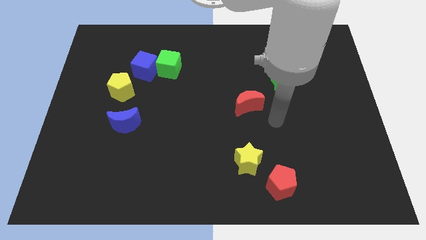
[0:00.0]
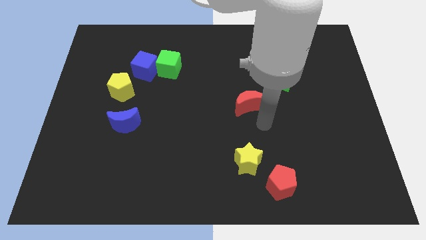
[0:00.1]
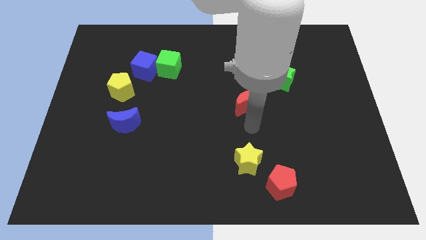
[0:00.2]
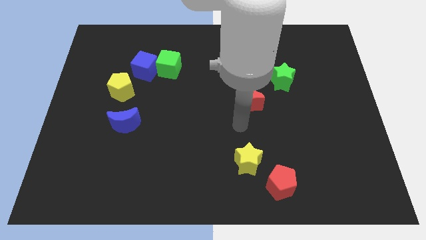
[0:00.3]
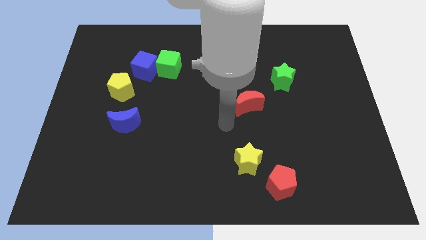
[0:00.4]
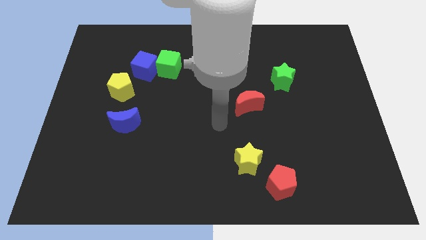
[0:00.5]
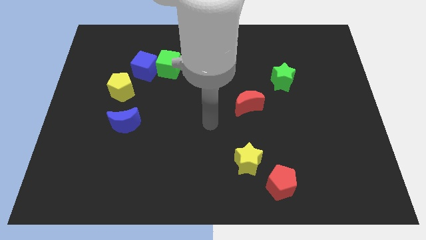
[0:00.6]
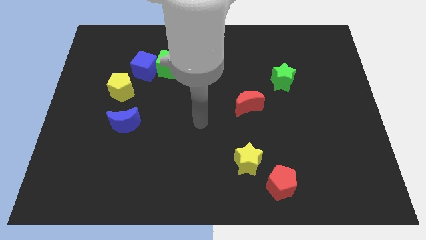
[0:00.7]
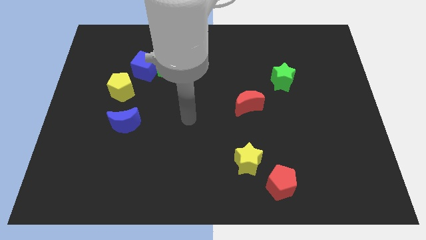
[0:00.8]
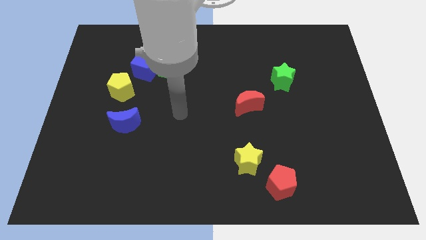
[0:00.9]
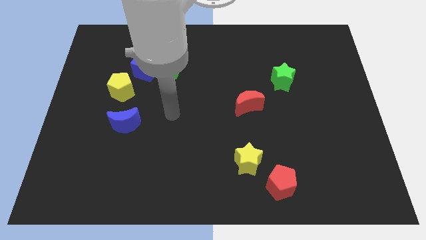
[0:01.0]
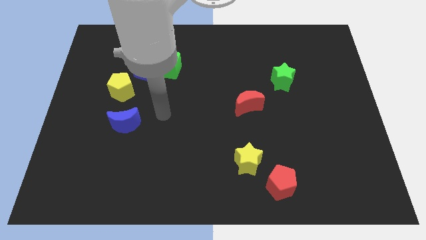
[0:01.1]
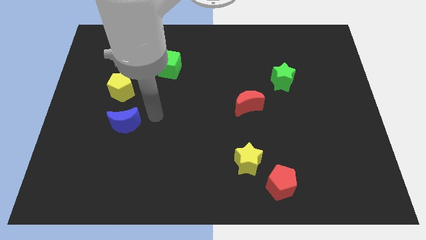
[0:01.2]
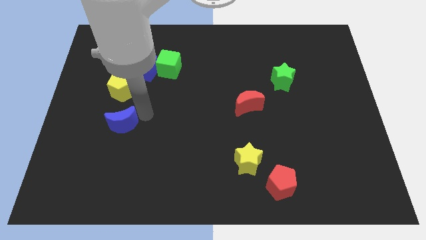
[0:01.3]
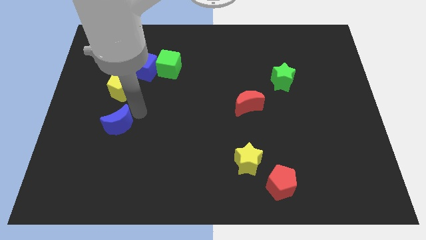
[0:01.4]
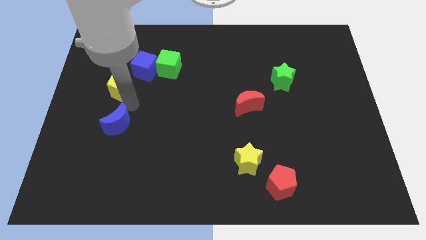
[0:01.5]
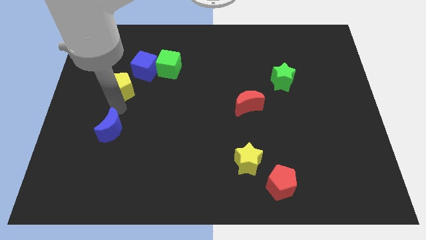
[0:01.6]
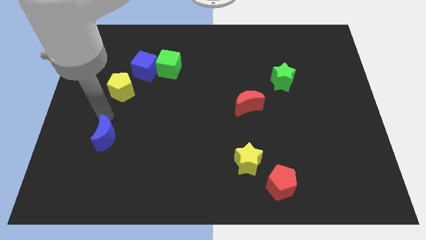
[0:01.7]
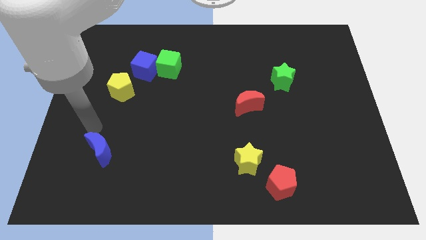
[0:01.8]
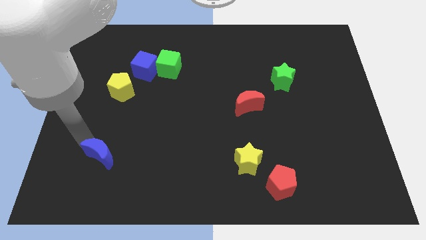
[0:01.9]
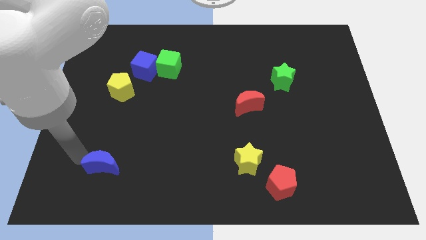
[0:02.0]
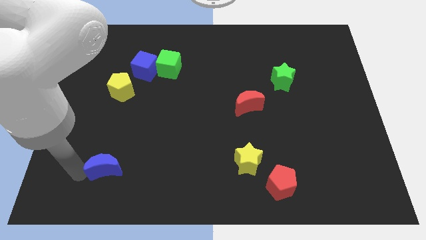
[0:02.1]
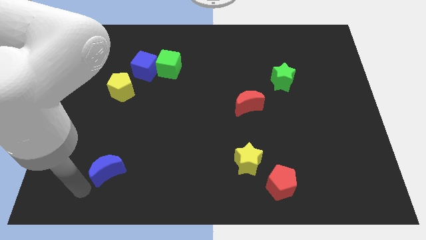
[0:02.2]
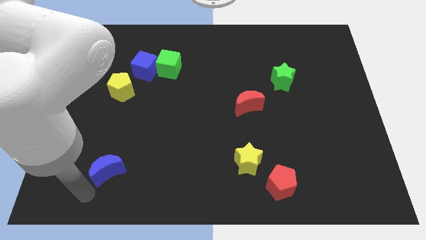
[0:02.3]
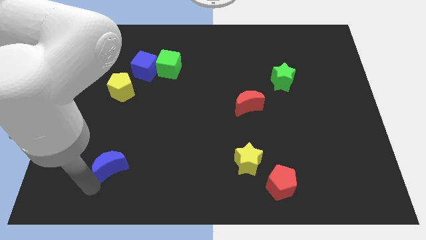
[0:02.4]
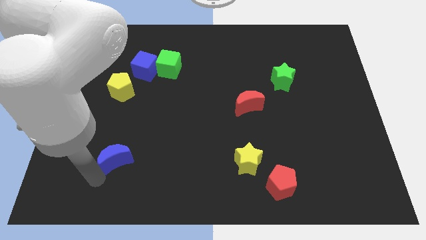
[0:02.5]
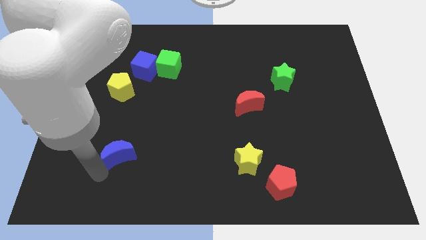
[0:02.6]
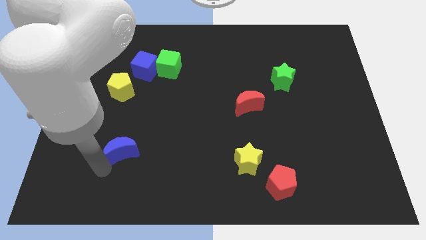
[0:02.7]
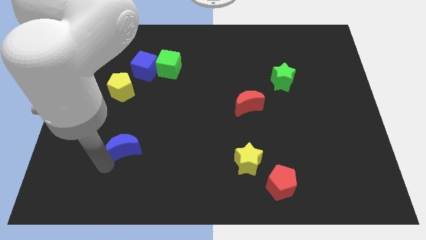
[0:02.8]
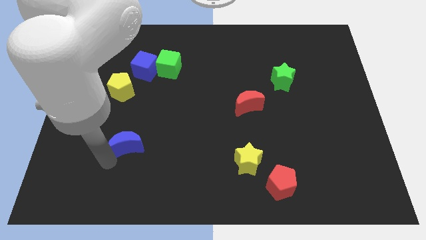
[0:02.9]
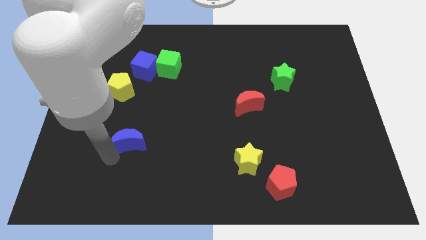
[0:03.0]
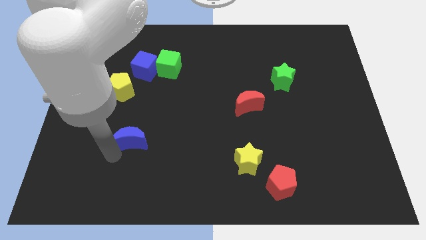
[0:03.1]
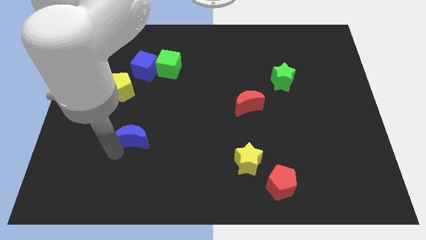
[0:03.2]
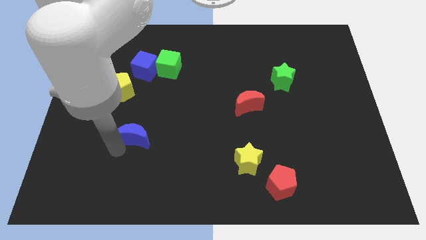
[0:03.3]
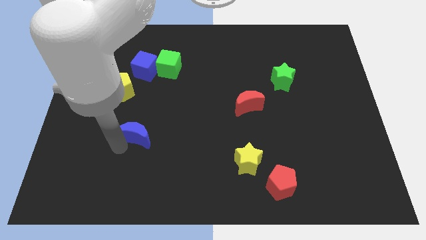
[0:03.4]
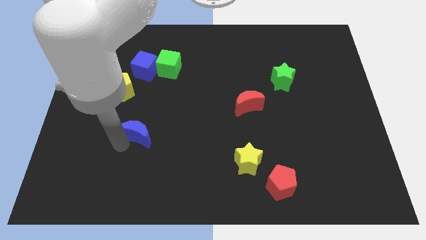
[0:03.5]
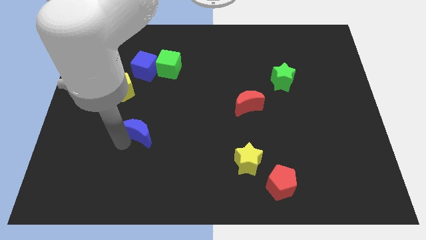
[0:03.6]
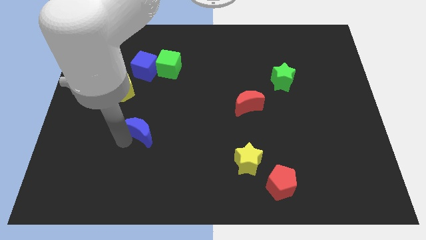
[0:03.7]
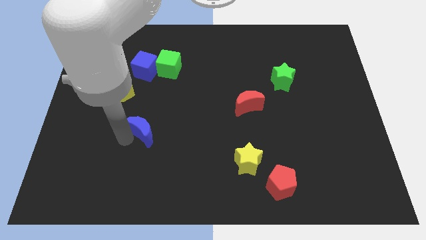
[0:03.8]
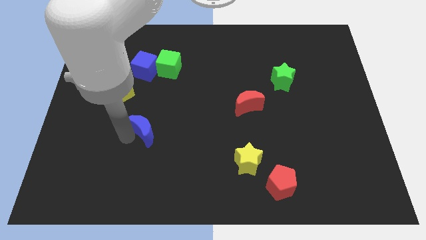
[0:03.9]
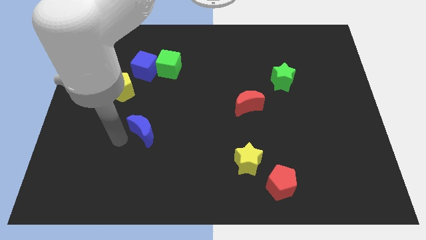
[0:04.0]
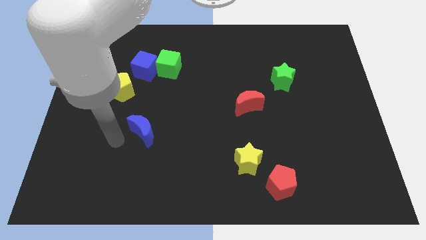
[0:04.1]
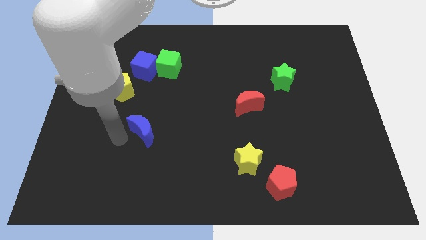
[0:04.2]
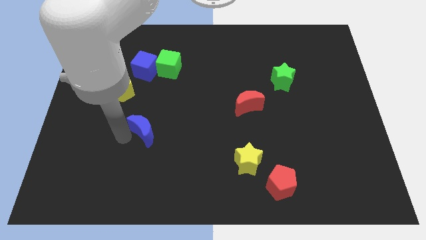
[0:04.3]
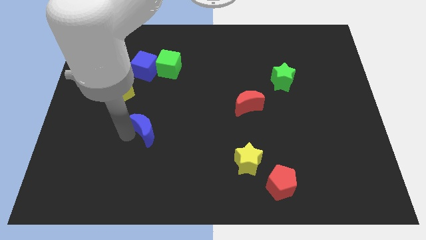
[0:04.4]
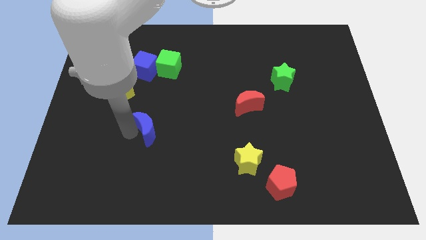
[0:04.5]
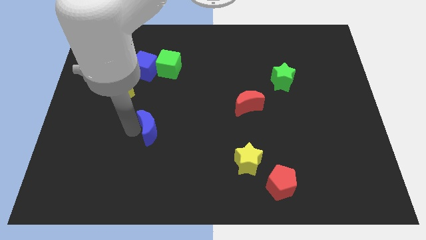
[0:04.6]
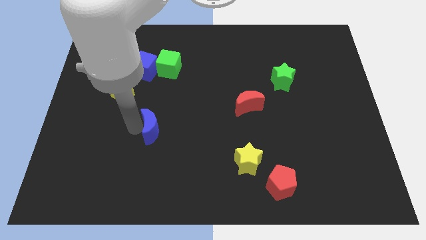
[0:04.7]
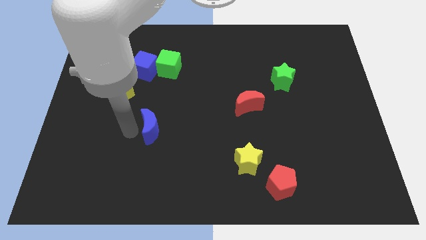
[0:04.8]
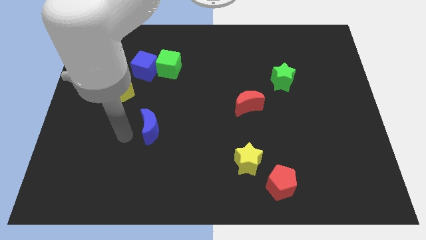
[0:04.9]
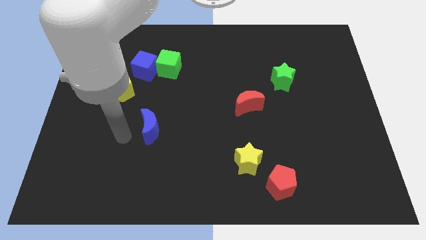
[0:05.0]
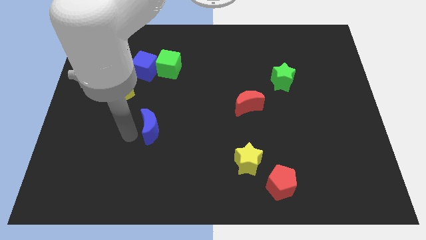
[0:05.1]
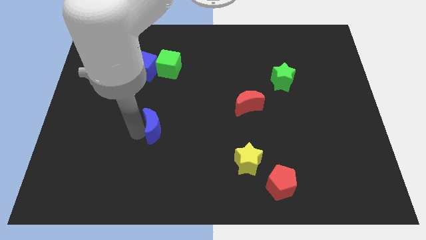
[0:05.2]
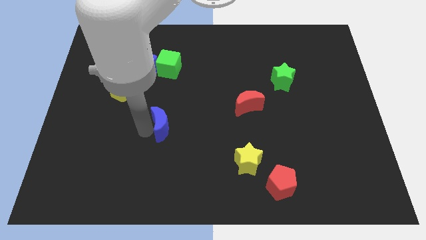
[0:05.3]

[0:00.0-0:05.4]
slightly push the blue moon right

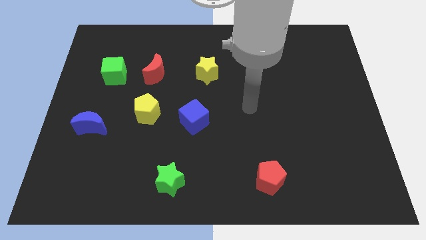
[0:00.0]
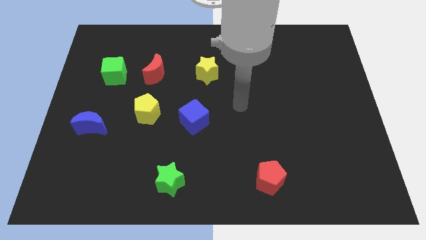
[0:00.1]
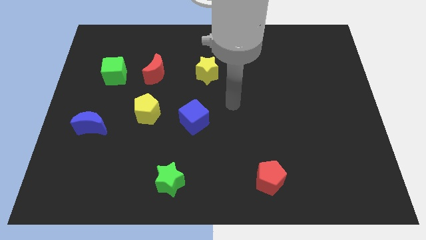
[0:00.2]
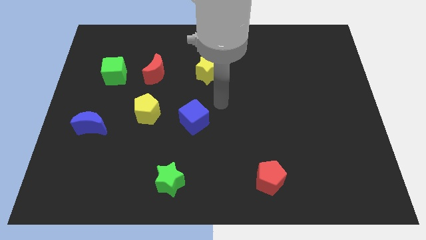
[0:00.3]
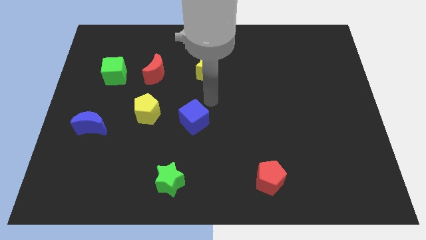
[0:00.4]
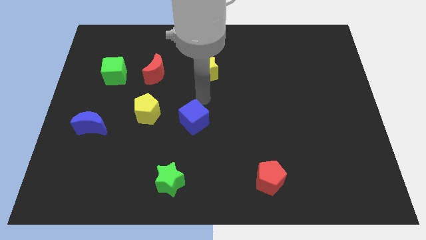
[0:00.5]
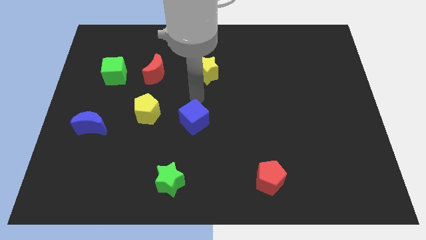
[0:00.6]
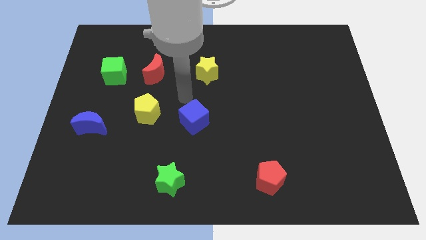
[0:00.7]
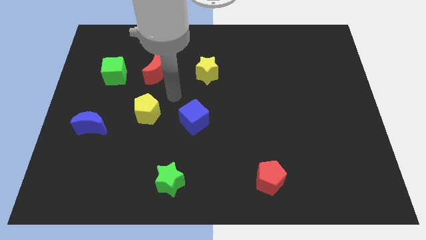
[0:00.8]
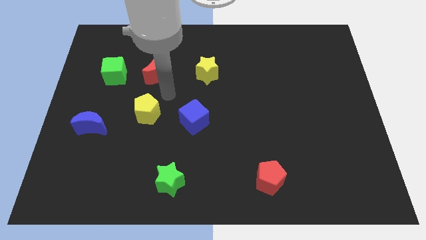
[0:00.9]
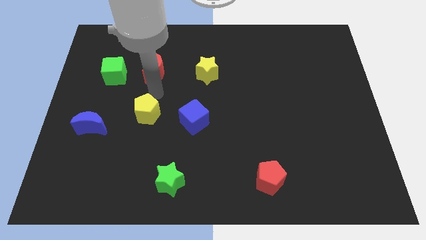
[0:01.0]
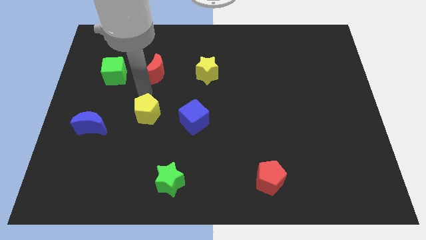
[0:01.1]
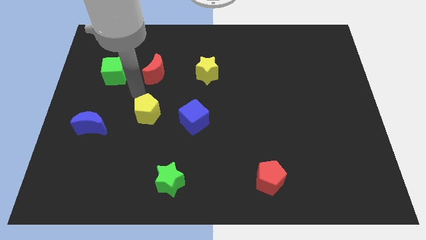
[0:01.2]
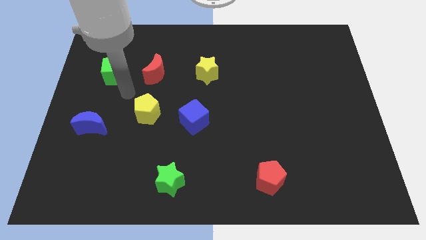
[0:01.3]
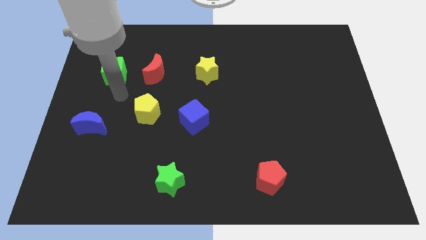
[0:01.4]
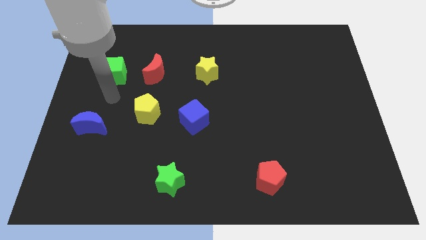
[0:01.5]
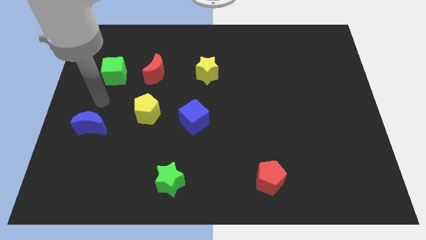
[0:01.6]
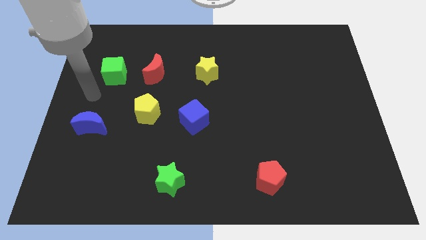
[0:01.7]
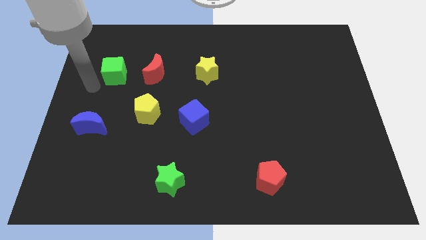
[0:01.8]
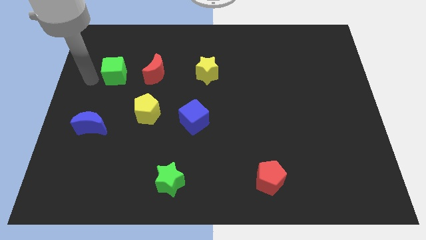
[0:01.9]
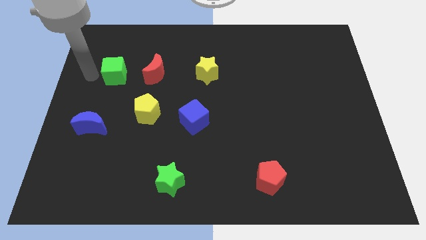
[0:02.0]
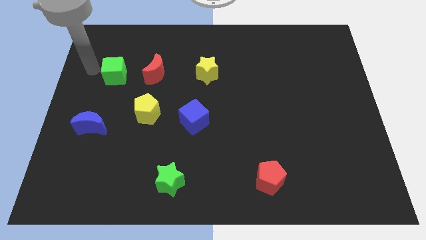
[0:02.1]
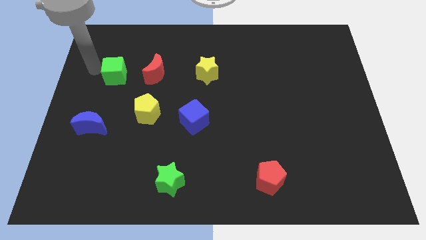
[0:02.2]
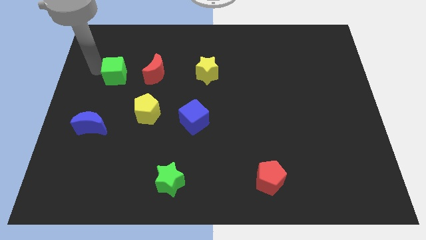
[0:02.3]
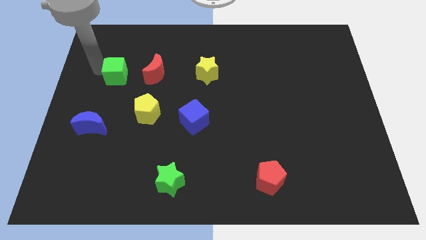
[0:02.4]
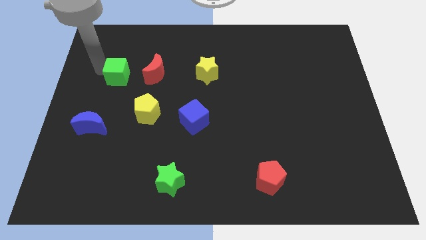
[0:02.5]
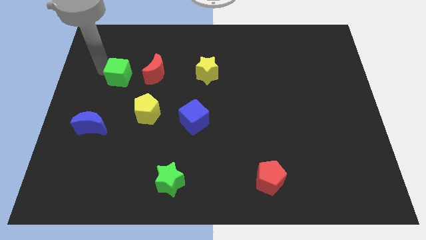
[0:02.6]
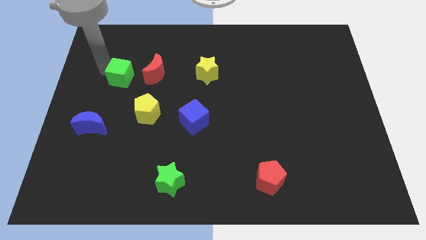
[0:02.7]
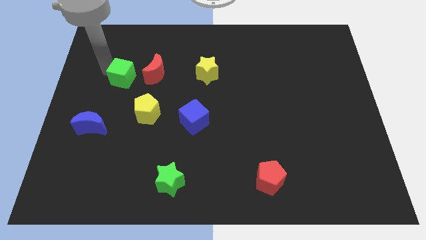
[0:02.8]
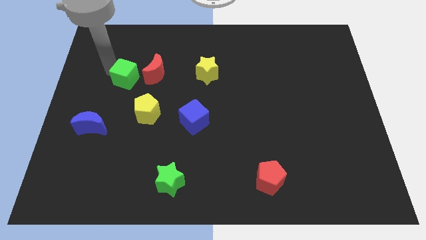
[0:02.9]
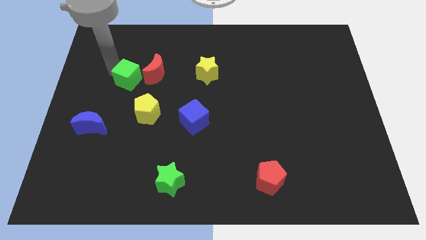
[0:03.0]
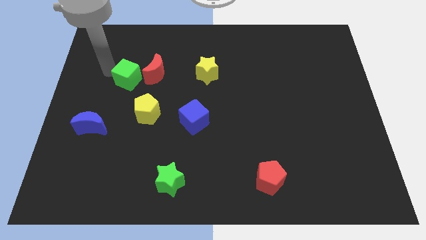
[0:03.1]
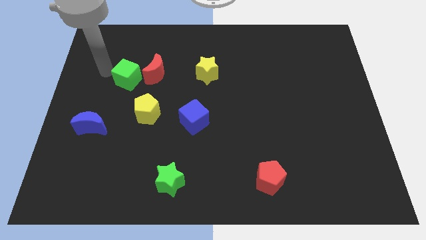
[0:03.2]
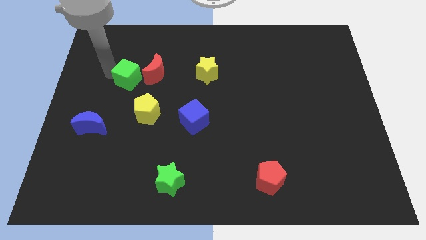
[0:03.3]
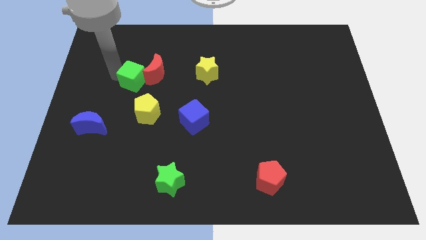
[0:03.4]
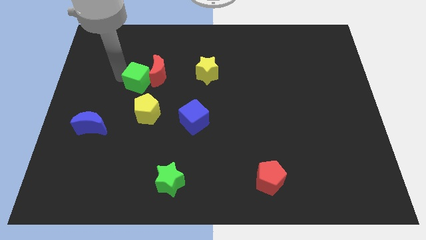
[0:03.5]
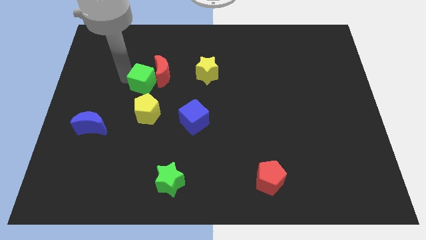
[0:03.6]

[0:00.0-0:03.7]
slightly slide the green cube to the right
